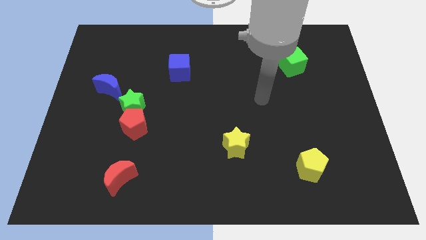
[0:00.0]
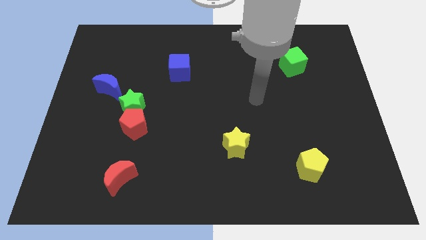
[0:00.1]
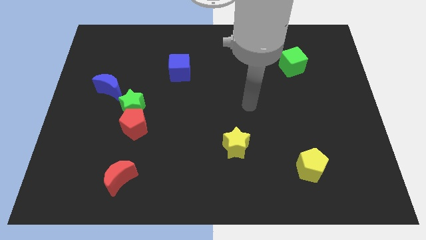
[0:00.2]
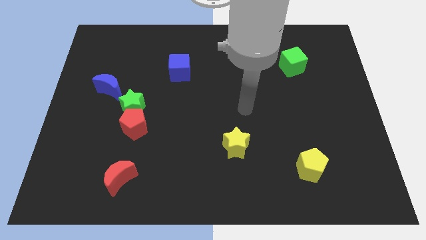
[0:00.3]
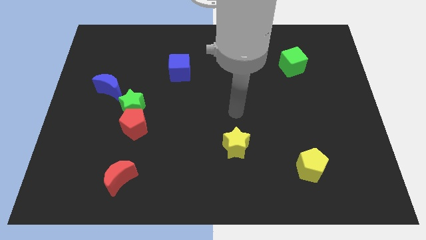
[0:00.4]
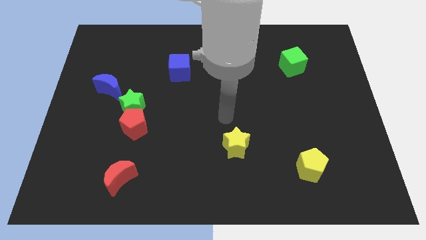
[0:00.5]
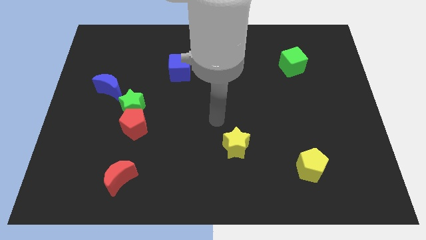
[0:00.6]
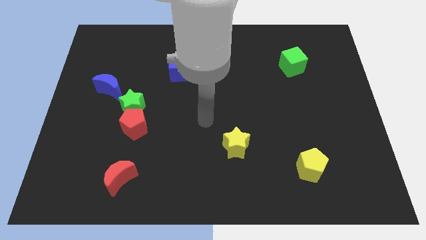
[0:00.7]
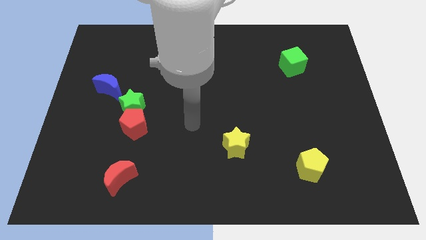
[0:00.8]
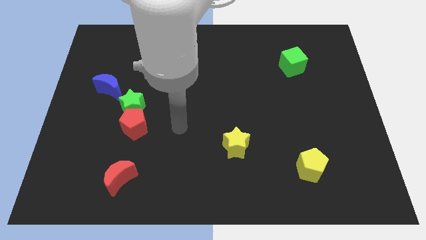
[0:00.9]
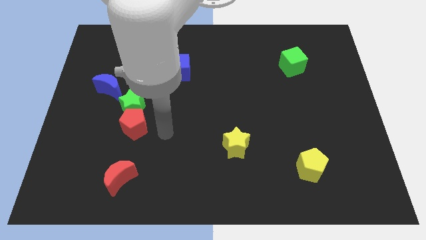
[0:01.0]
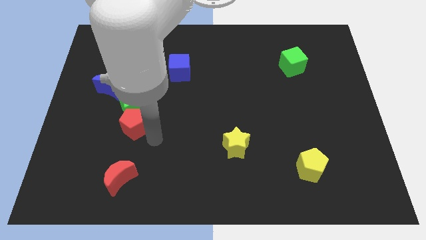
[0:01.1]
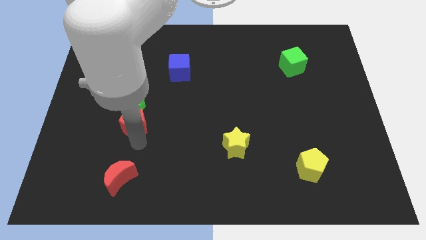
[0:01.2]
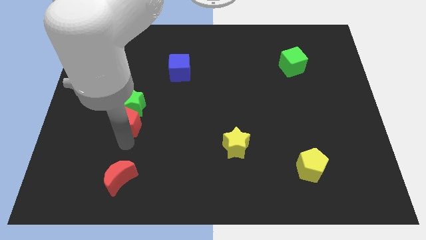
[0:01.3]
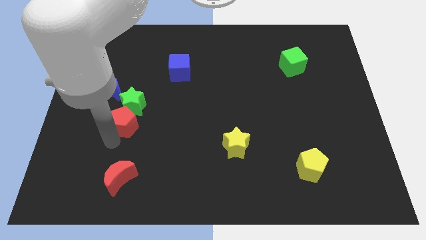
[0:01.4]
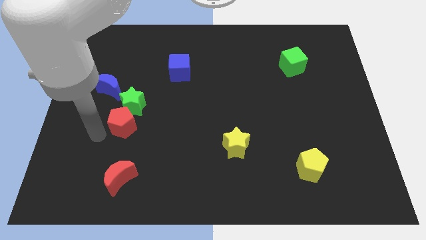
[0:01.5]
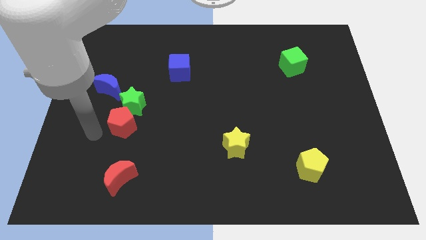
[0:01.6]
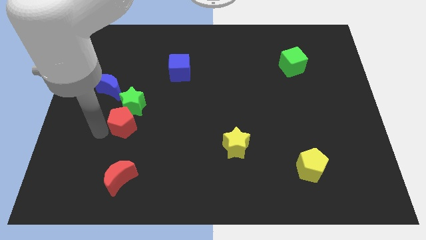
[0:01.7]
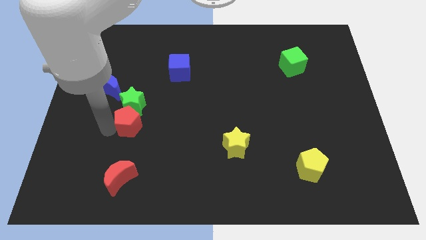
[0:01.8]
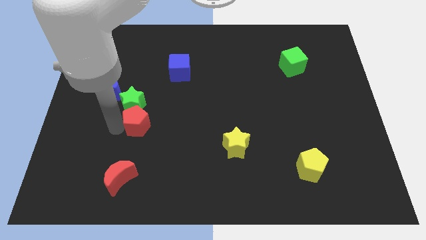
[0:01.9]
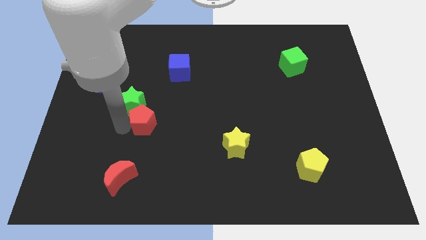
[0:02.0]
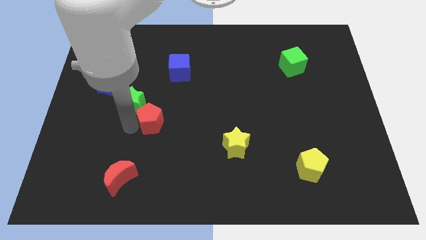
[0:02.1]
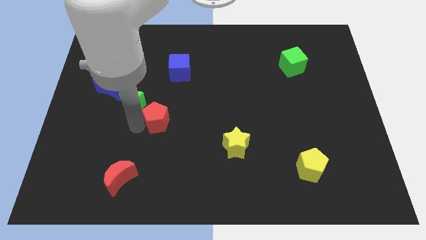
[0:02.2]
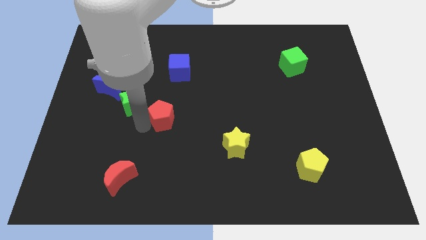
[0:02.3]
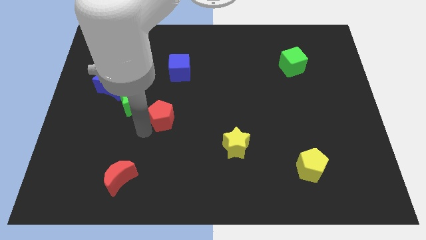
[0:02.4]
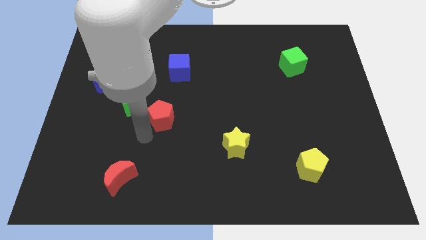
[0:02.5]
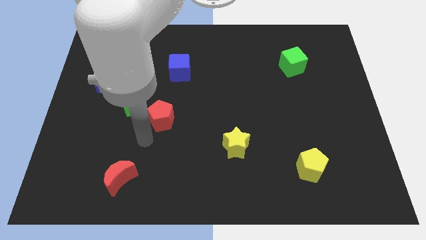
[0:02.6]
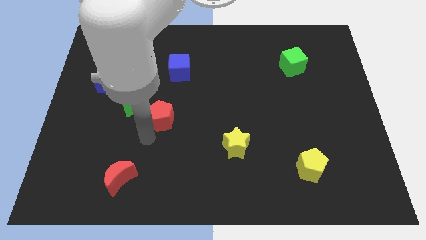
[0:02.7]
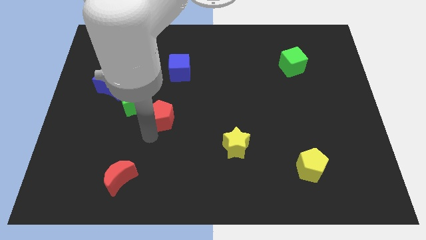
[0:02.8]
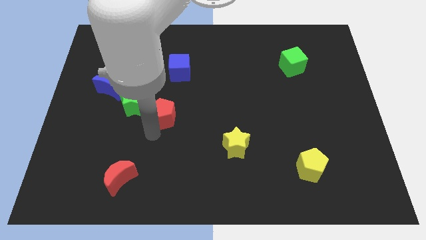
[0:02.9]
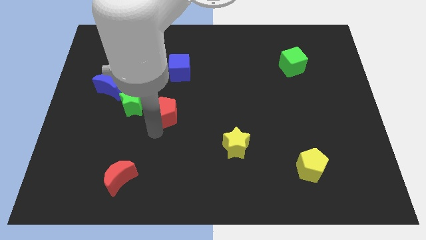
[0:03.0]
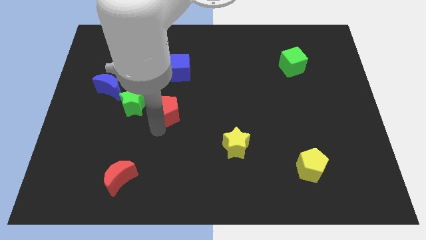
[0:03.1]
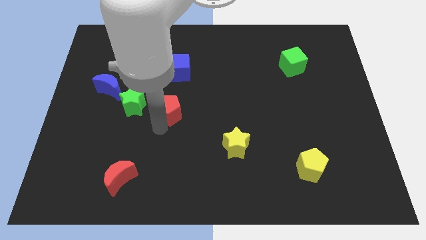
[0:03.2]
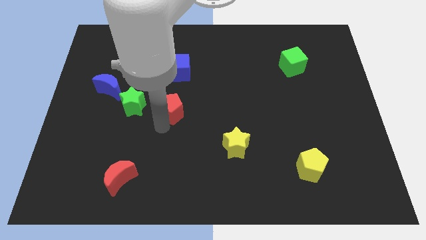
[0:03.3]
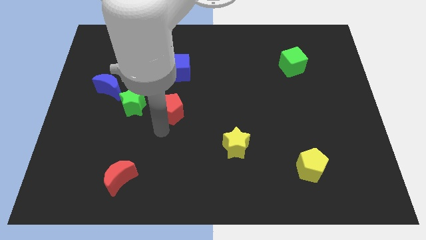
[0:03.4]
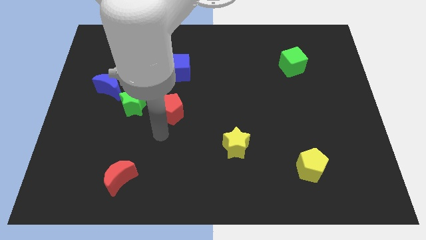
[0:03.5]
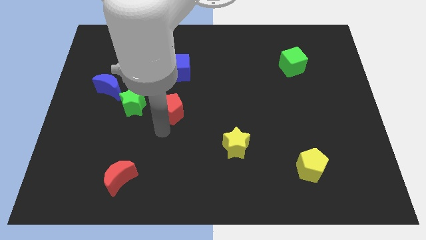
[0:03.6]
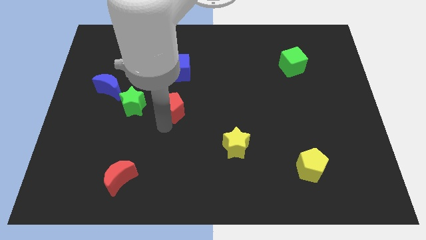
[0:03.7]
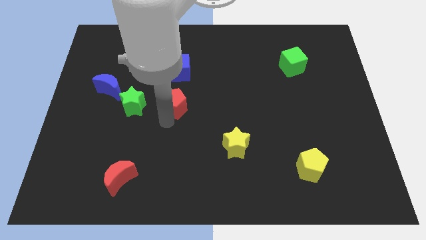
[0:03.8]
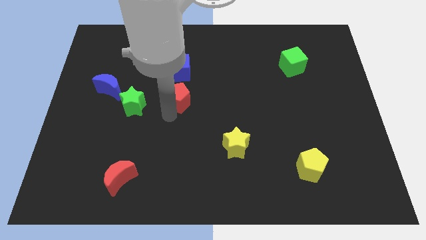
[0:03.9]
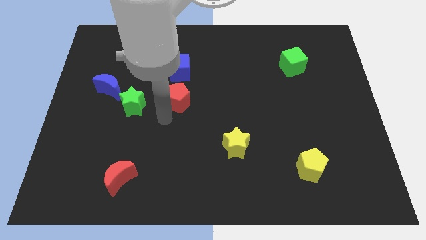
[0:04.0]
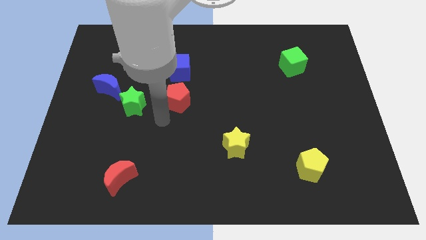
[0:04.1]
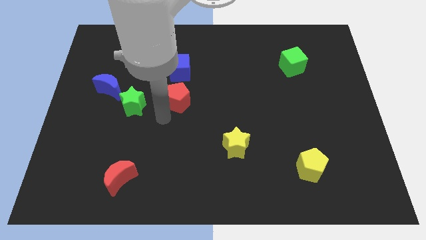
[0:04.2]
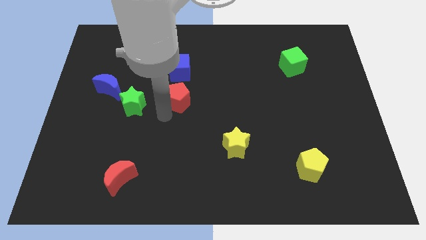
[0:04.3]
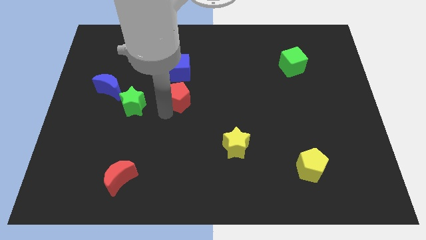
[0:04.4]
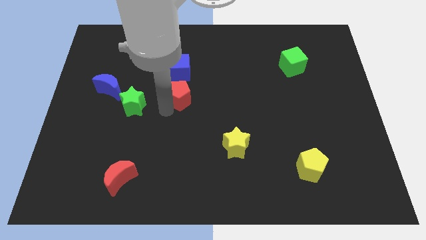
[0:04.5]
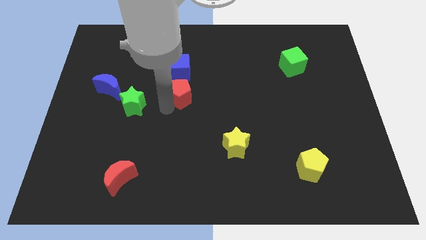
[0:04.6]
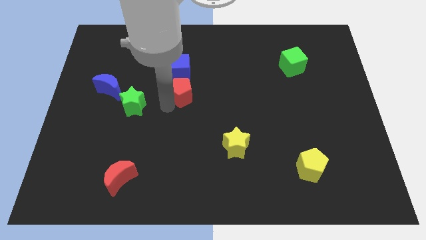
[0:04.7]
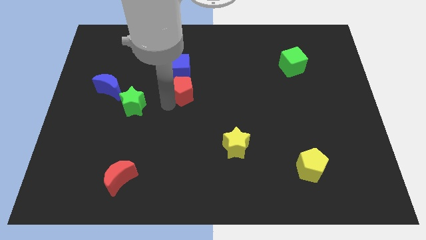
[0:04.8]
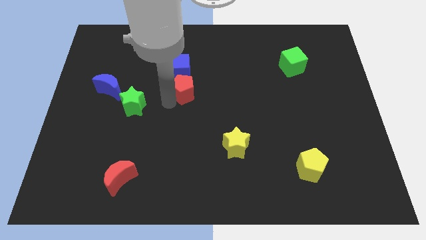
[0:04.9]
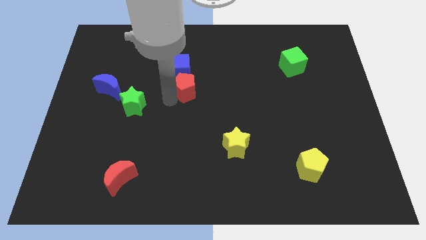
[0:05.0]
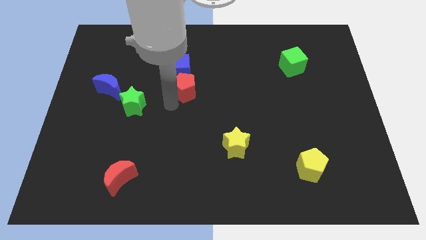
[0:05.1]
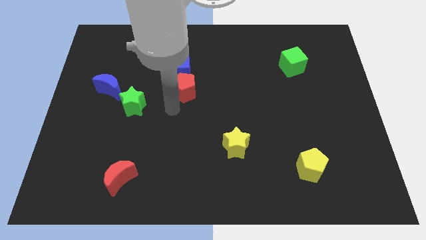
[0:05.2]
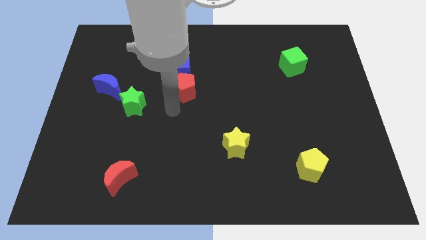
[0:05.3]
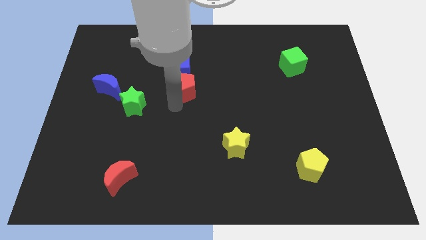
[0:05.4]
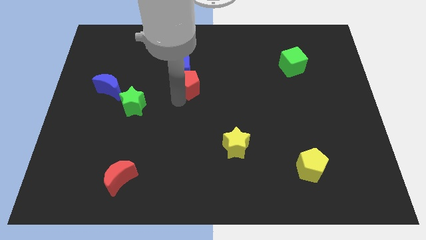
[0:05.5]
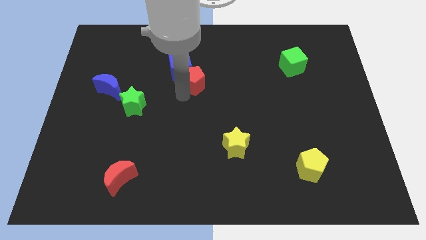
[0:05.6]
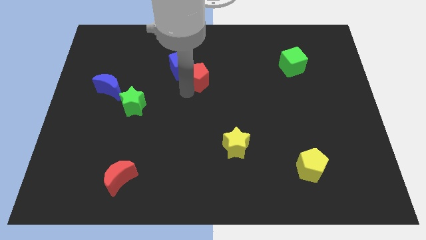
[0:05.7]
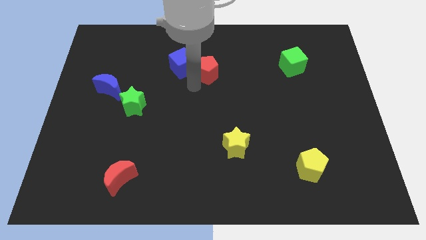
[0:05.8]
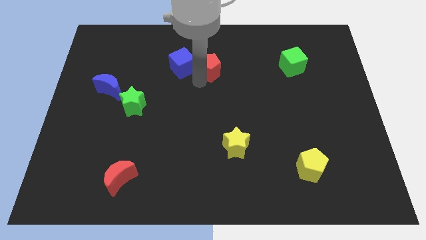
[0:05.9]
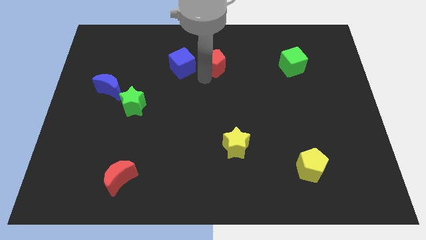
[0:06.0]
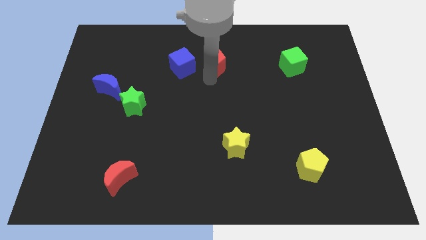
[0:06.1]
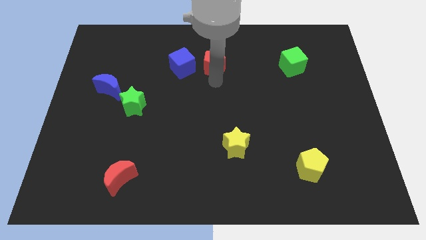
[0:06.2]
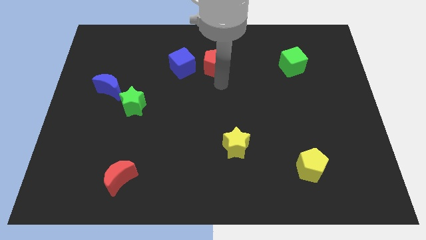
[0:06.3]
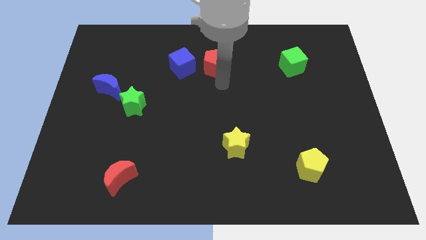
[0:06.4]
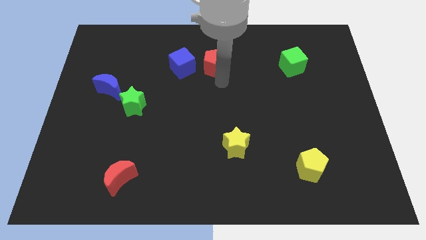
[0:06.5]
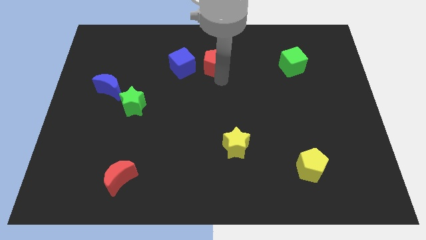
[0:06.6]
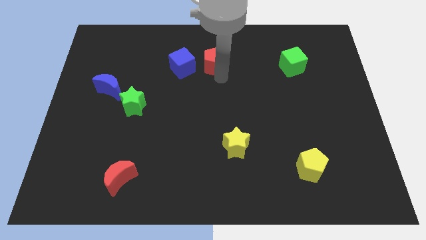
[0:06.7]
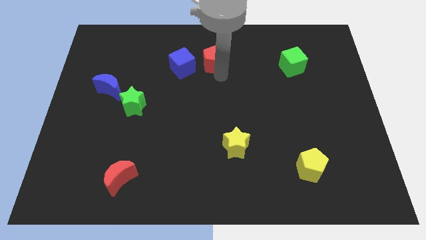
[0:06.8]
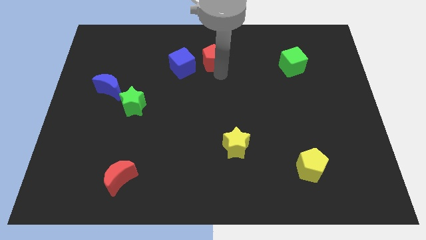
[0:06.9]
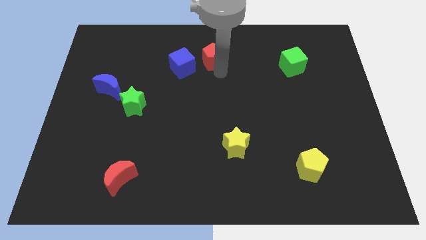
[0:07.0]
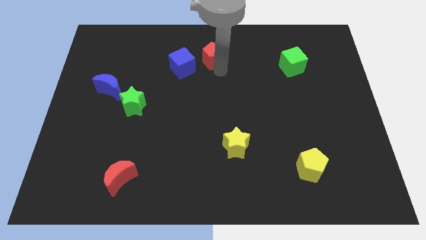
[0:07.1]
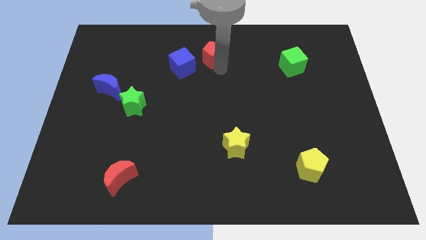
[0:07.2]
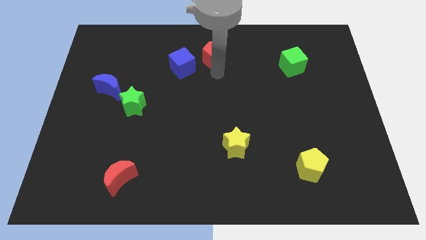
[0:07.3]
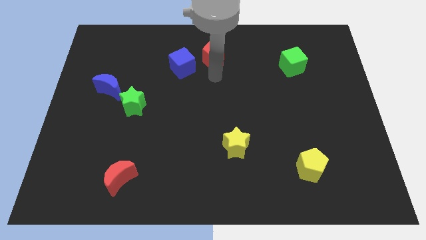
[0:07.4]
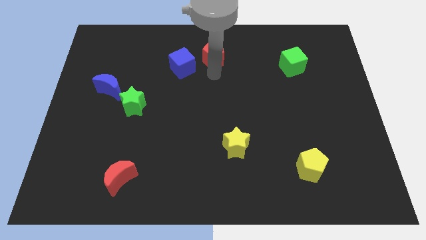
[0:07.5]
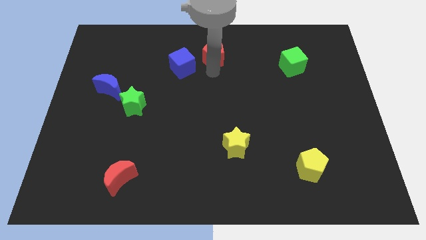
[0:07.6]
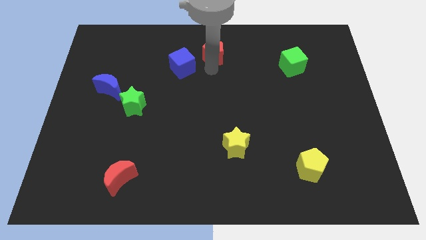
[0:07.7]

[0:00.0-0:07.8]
put the red pentagon to the towards your base
